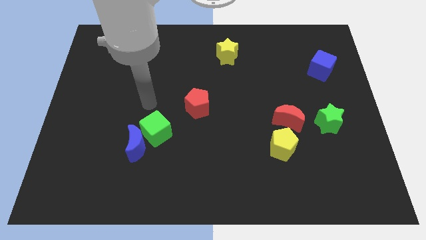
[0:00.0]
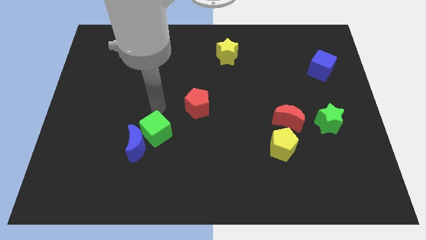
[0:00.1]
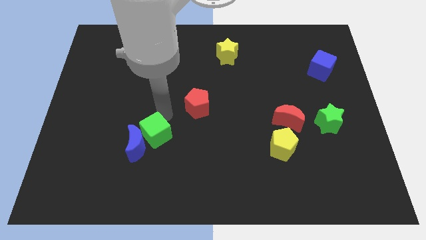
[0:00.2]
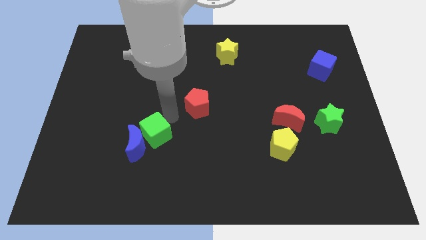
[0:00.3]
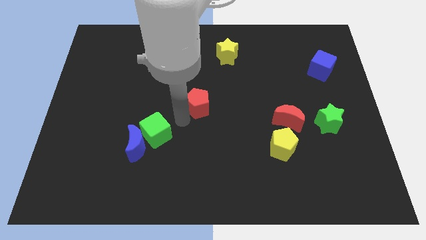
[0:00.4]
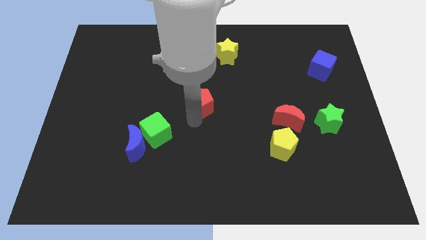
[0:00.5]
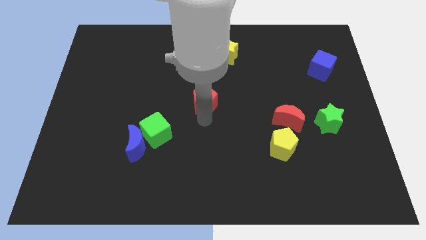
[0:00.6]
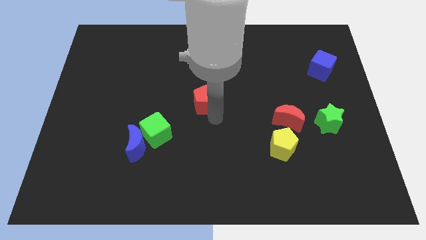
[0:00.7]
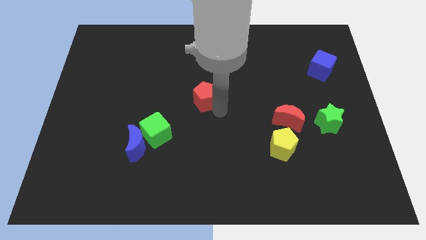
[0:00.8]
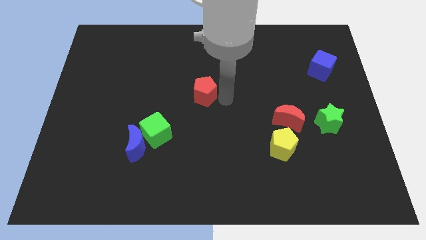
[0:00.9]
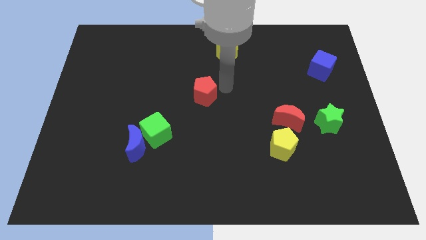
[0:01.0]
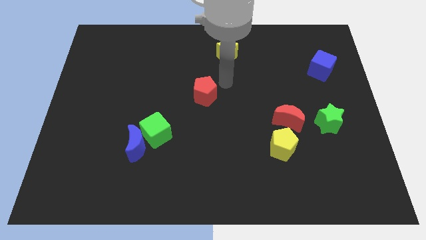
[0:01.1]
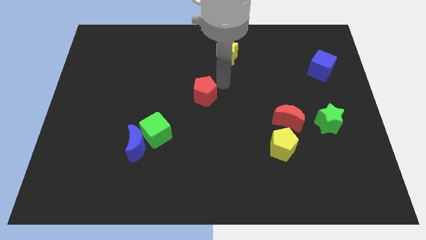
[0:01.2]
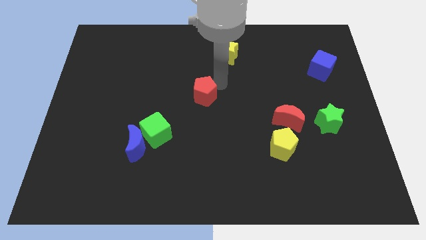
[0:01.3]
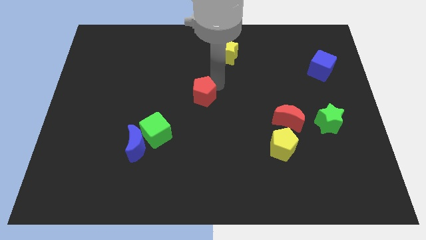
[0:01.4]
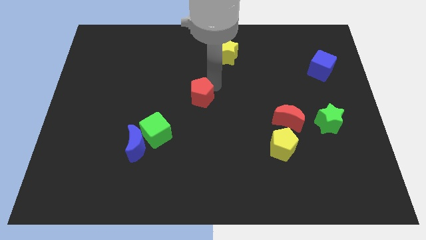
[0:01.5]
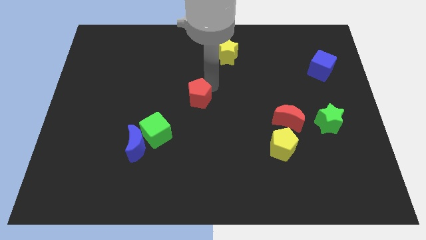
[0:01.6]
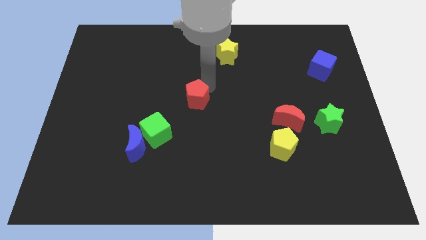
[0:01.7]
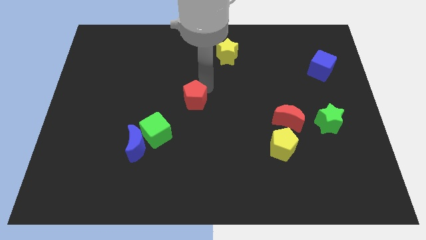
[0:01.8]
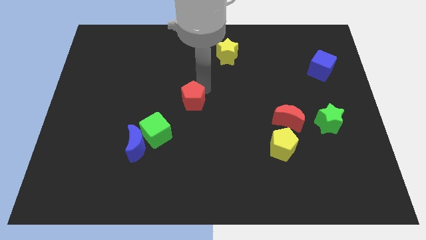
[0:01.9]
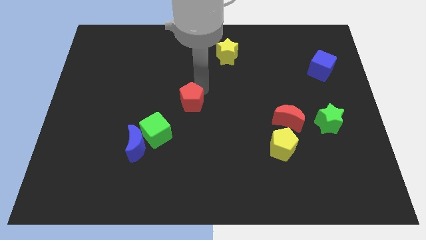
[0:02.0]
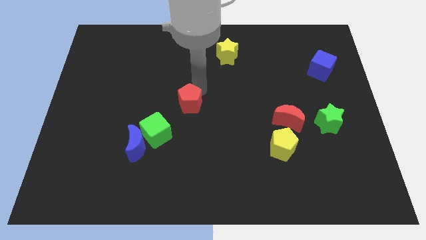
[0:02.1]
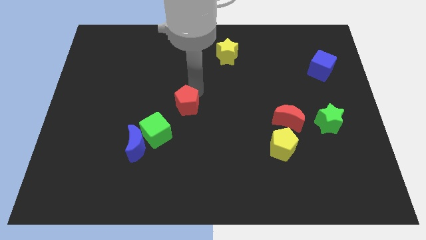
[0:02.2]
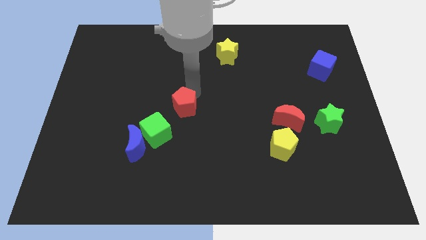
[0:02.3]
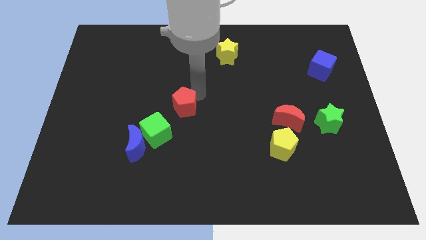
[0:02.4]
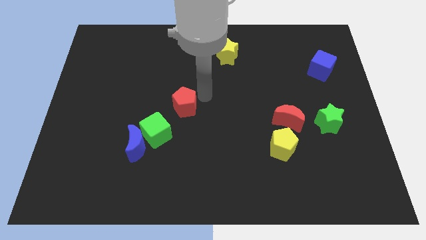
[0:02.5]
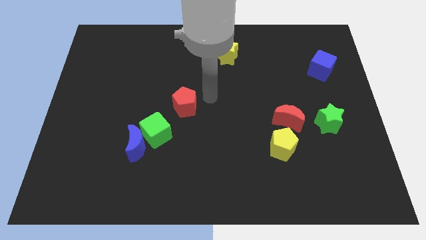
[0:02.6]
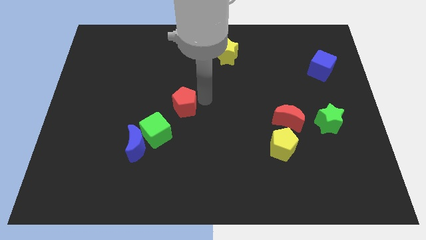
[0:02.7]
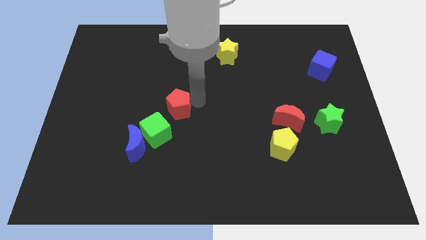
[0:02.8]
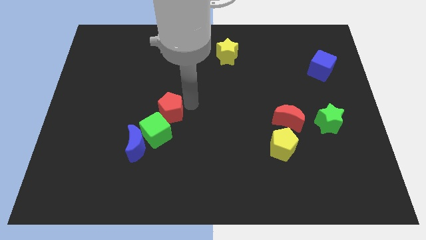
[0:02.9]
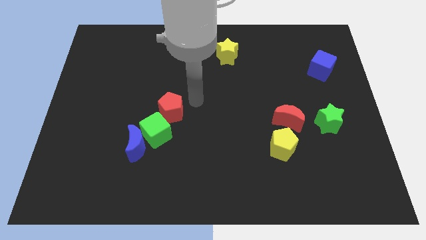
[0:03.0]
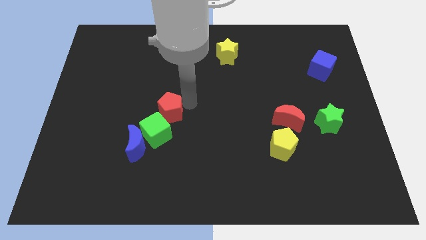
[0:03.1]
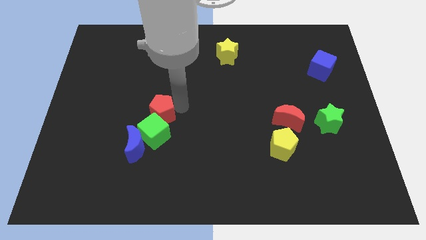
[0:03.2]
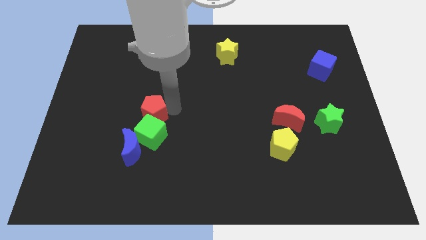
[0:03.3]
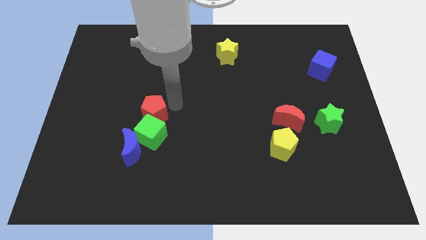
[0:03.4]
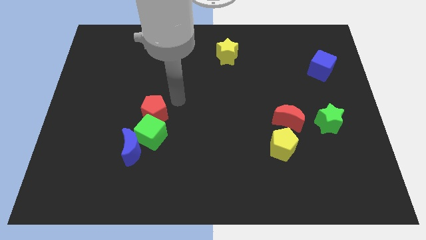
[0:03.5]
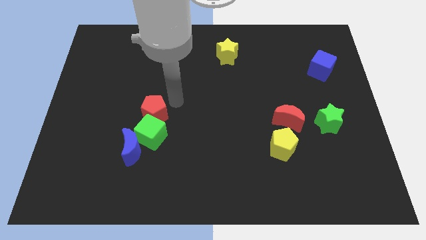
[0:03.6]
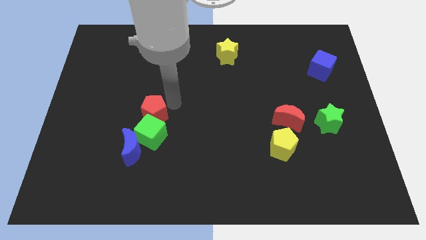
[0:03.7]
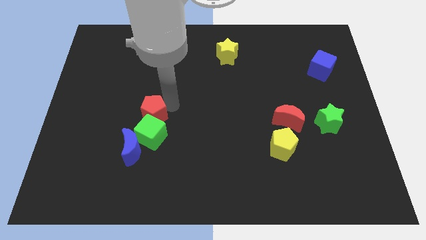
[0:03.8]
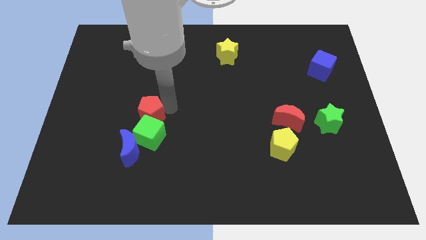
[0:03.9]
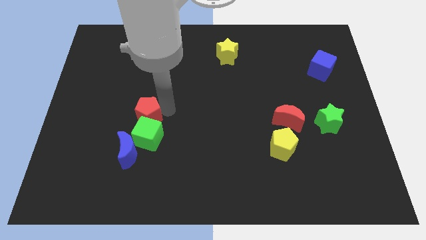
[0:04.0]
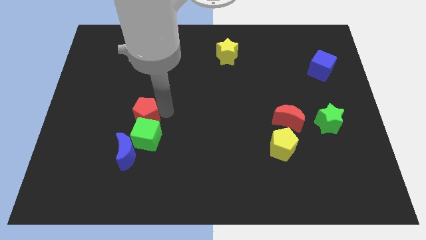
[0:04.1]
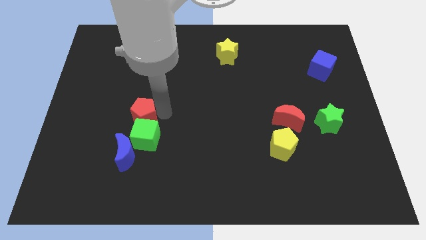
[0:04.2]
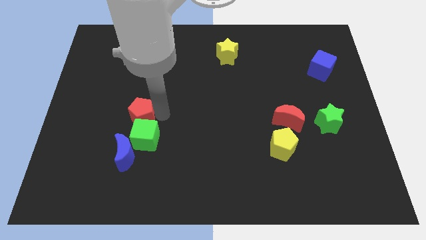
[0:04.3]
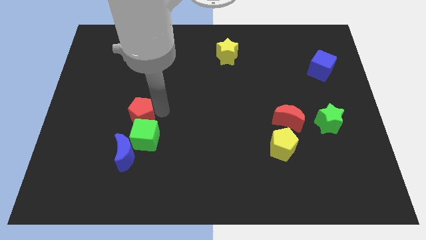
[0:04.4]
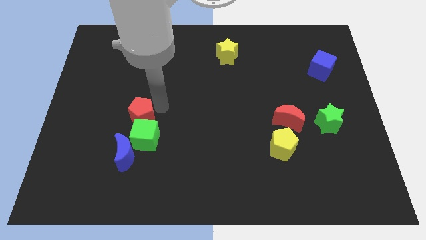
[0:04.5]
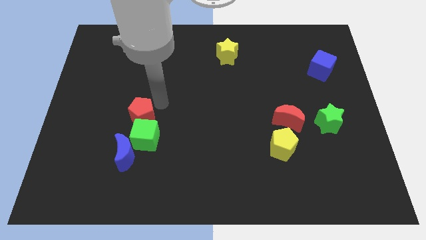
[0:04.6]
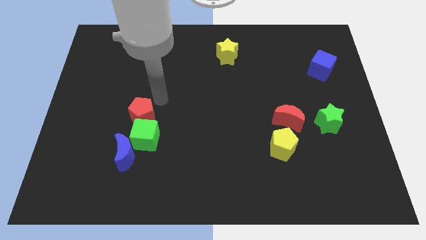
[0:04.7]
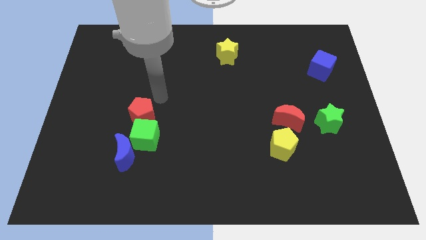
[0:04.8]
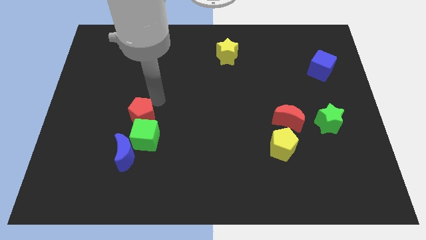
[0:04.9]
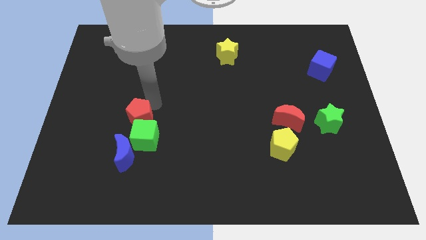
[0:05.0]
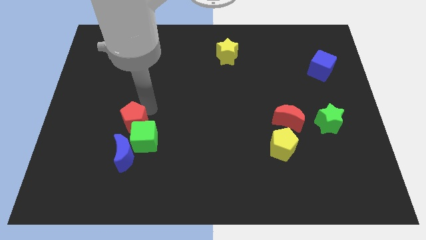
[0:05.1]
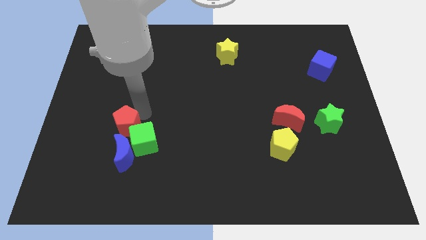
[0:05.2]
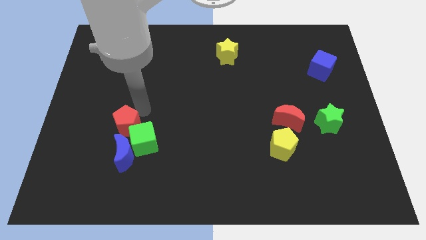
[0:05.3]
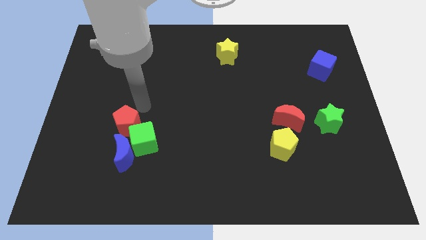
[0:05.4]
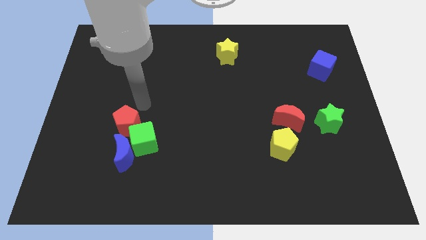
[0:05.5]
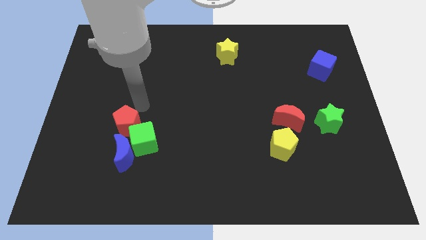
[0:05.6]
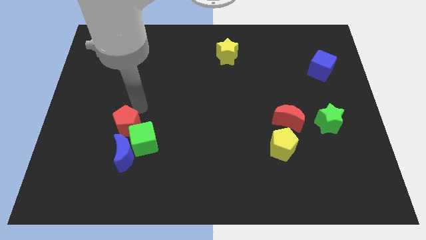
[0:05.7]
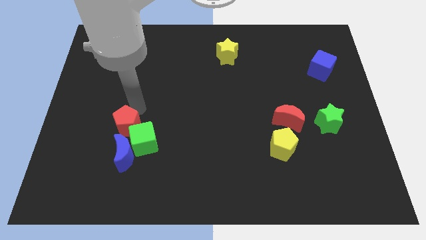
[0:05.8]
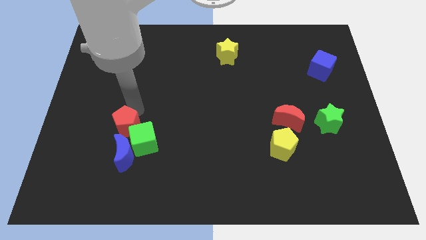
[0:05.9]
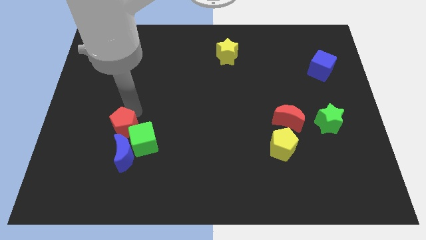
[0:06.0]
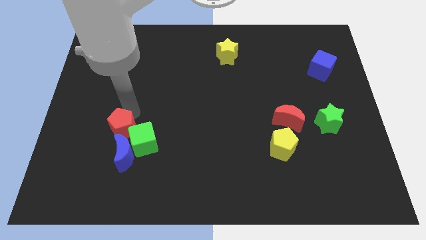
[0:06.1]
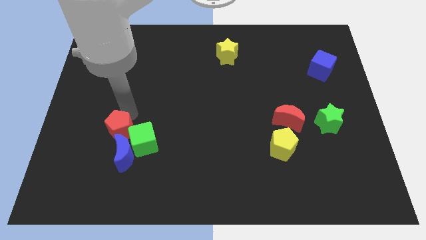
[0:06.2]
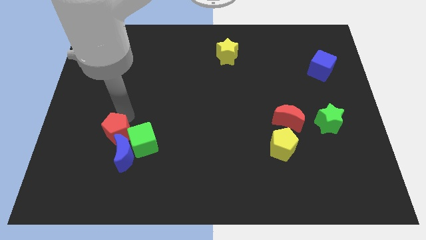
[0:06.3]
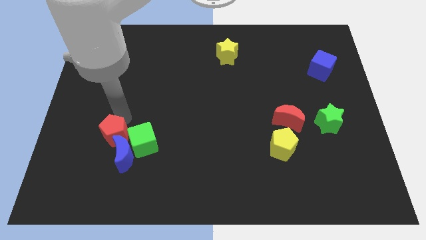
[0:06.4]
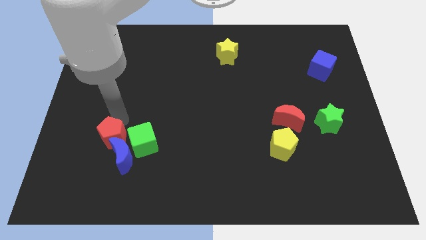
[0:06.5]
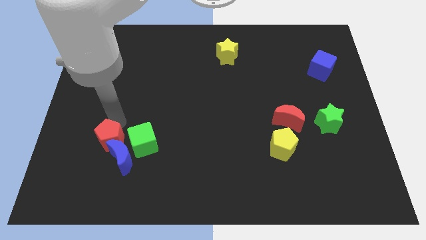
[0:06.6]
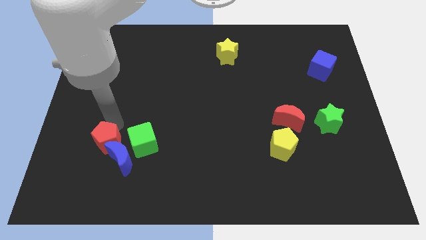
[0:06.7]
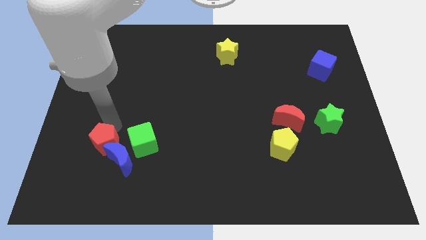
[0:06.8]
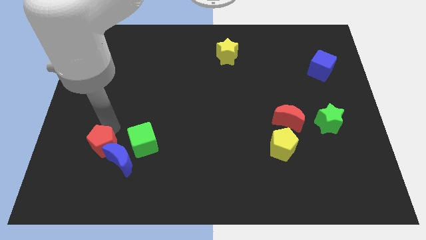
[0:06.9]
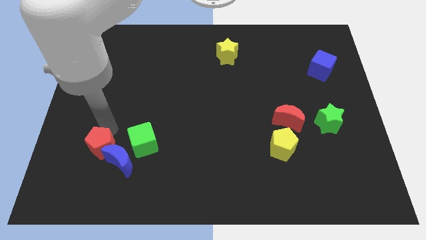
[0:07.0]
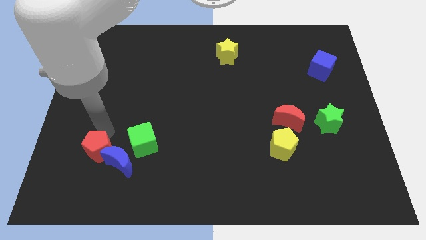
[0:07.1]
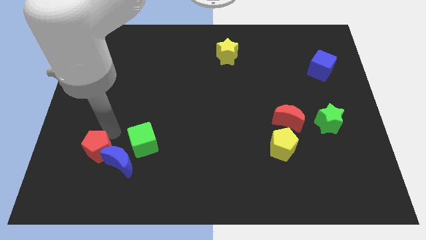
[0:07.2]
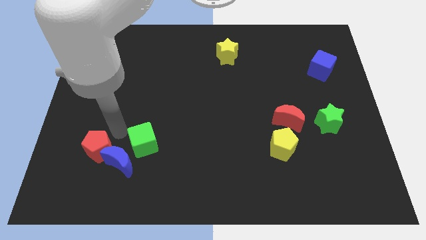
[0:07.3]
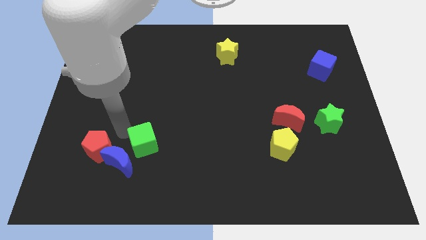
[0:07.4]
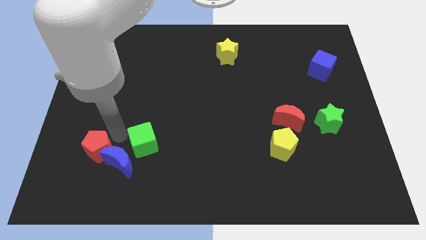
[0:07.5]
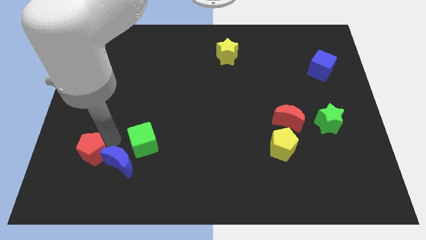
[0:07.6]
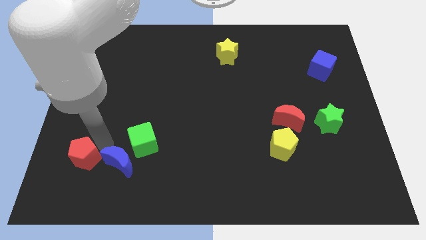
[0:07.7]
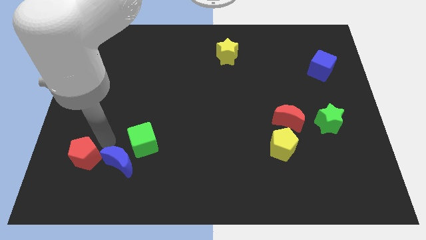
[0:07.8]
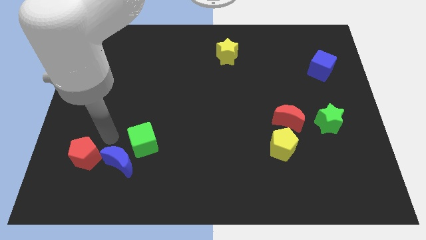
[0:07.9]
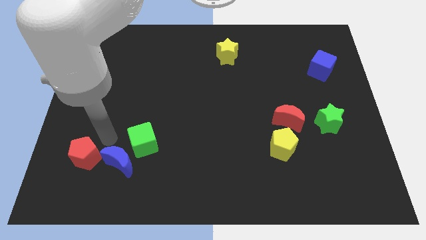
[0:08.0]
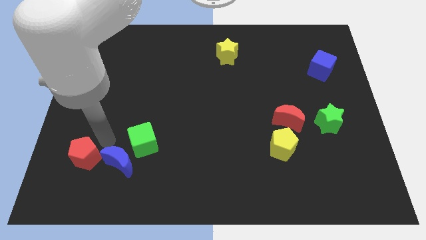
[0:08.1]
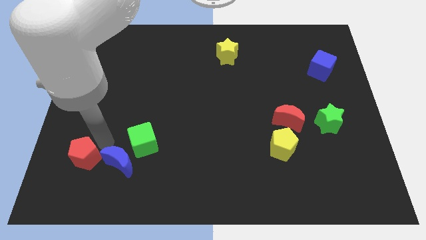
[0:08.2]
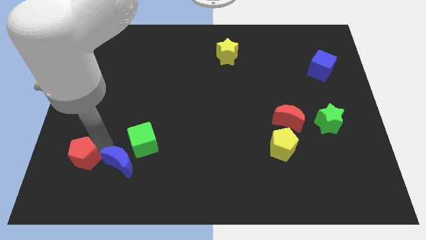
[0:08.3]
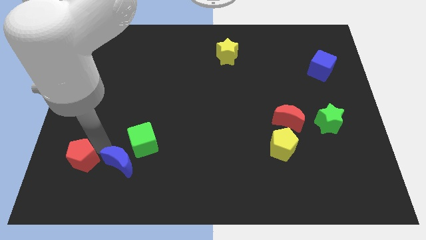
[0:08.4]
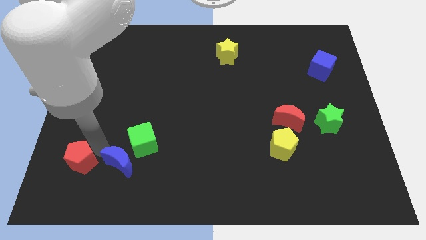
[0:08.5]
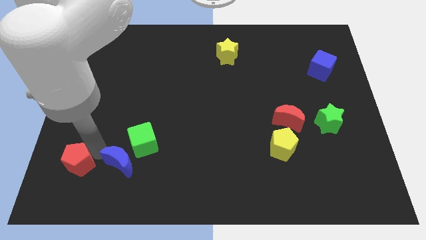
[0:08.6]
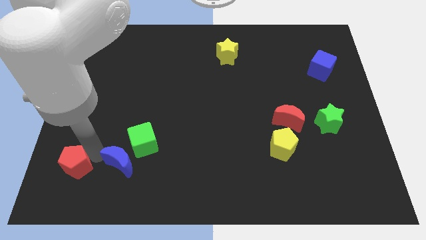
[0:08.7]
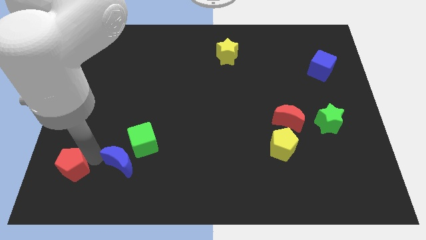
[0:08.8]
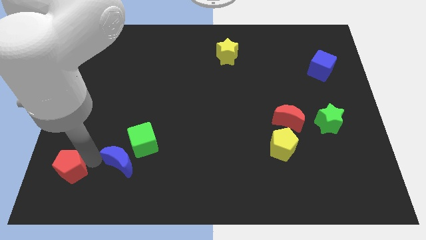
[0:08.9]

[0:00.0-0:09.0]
put the red pentagon to the bottom left of the board
